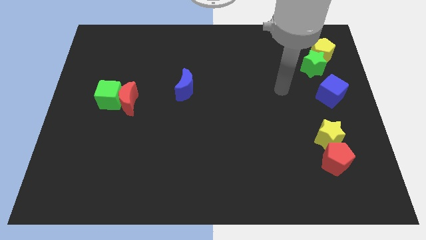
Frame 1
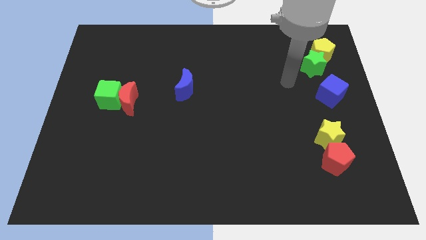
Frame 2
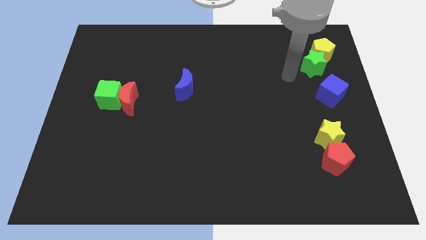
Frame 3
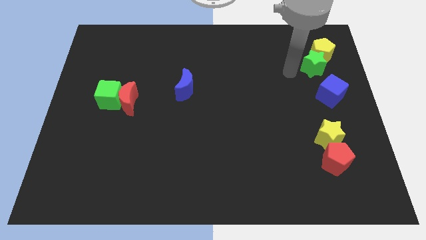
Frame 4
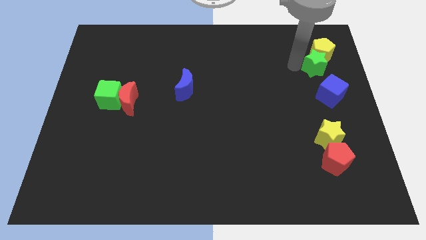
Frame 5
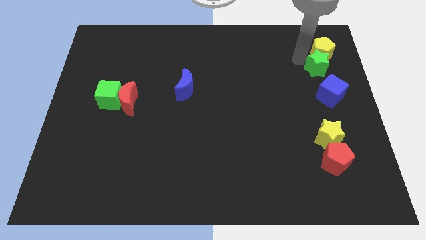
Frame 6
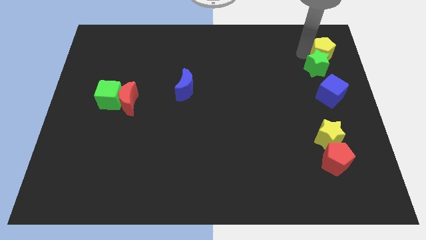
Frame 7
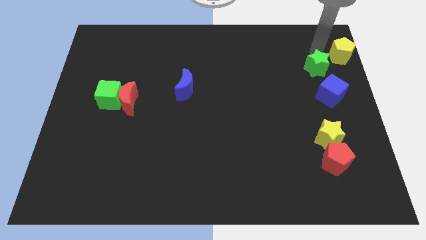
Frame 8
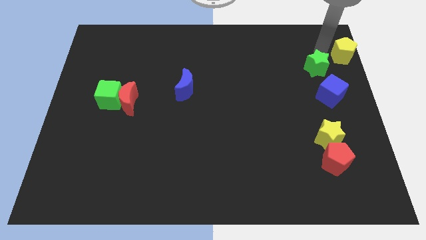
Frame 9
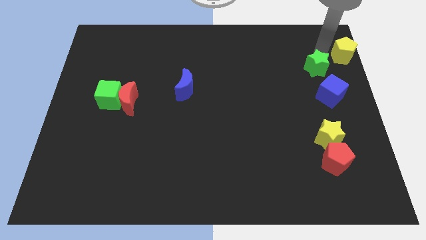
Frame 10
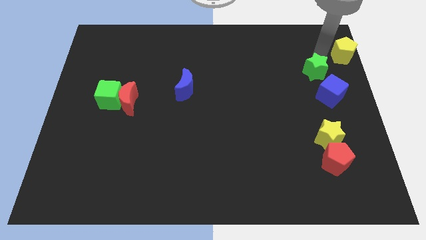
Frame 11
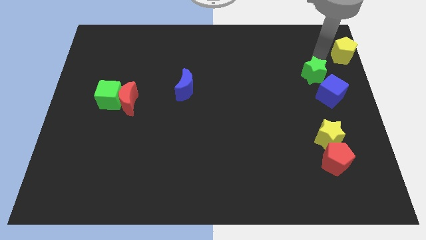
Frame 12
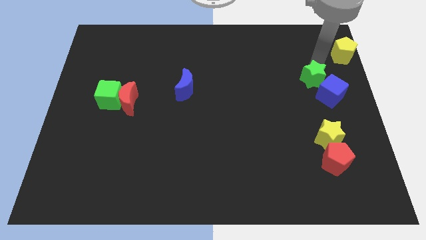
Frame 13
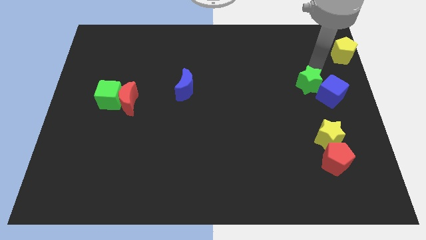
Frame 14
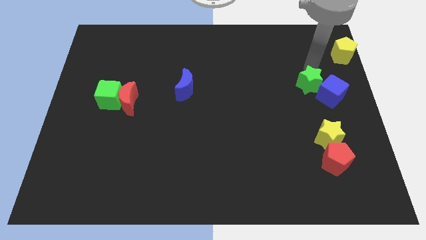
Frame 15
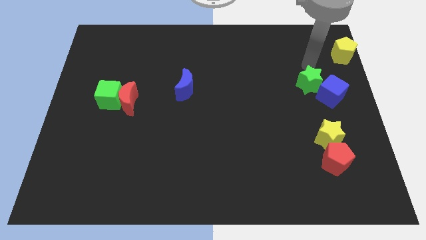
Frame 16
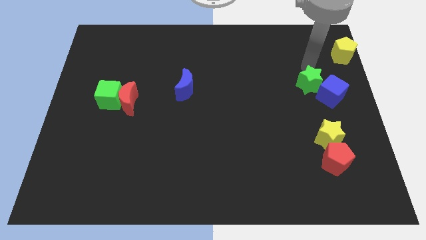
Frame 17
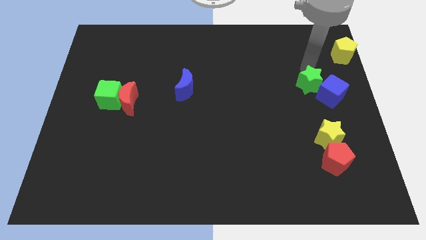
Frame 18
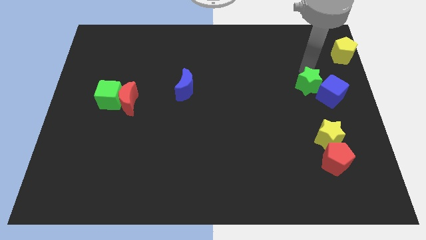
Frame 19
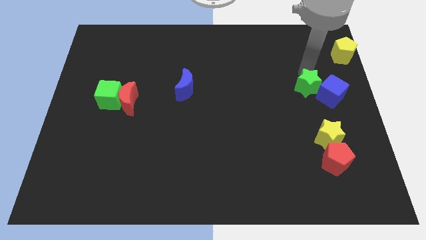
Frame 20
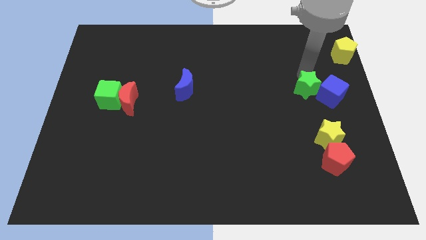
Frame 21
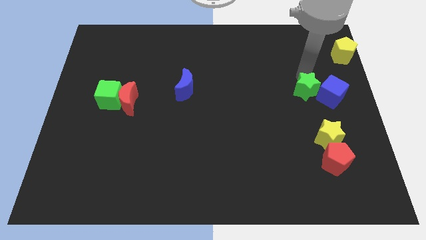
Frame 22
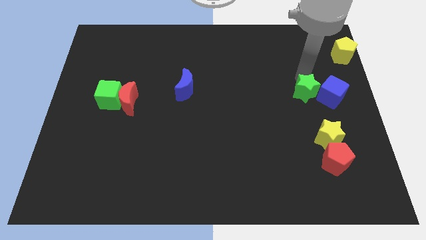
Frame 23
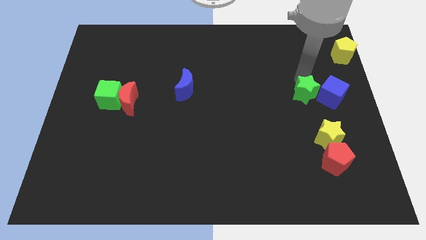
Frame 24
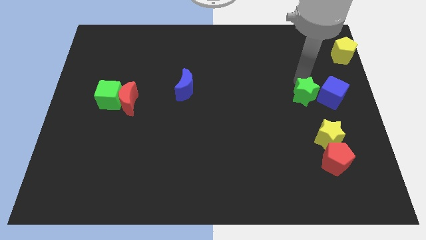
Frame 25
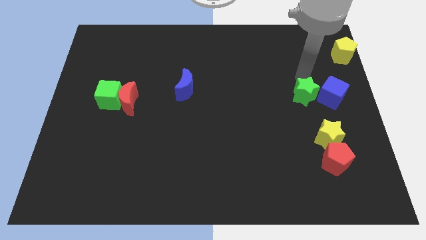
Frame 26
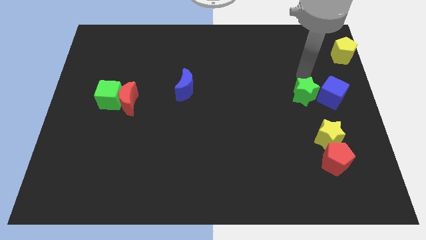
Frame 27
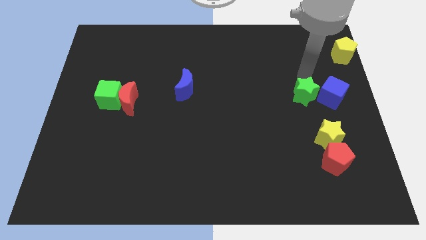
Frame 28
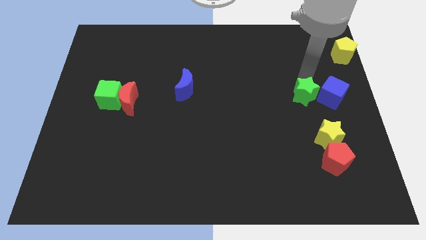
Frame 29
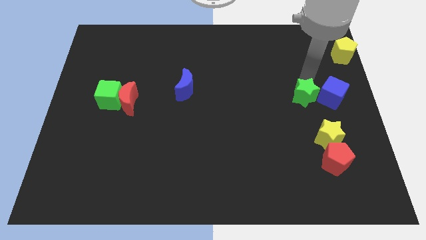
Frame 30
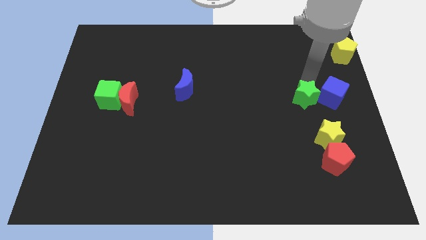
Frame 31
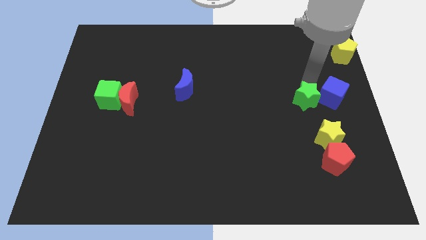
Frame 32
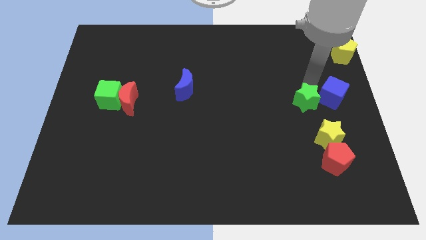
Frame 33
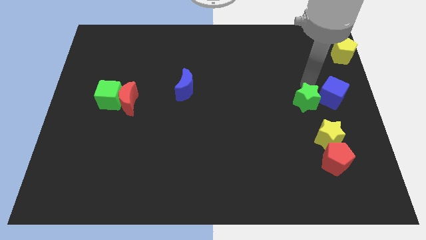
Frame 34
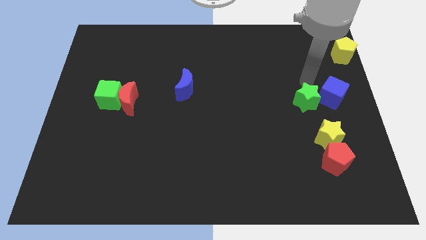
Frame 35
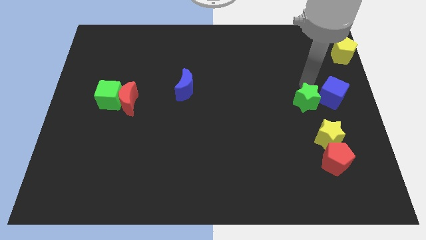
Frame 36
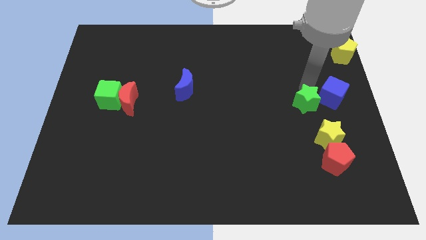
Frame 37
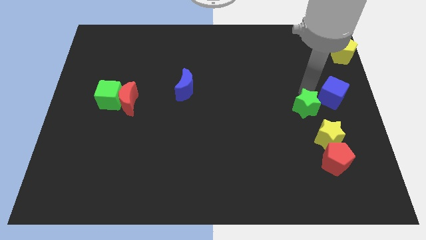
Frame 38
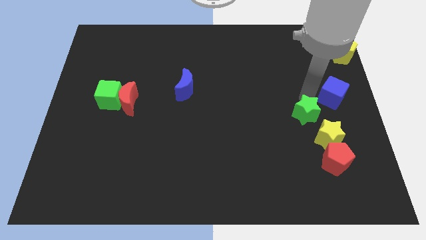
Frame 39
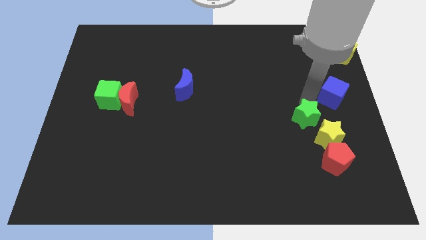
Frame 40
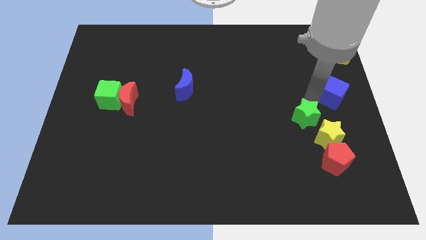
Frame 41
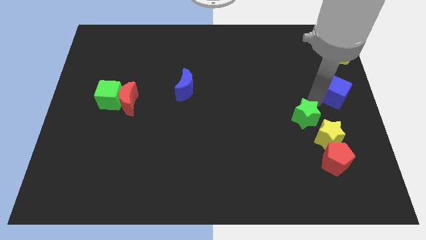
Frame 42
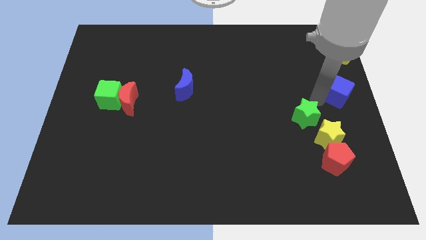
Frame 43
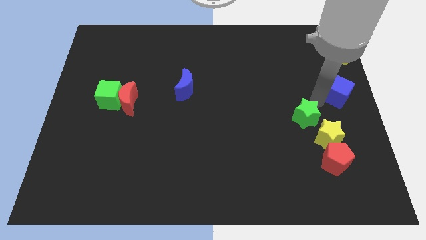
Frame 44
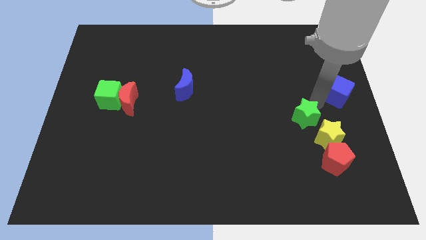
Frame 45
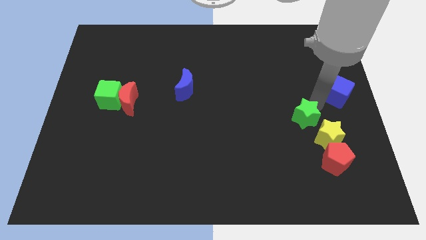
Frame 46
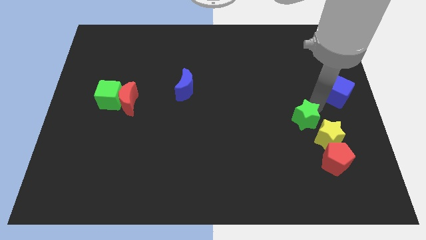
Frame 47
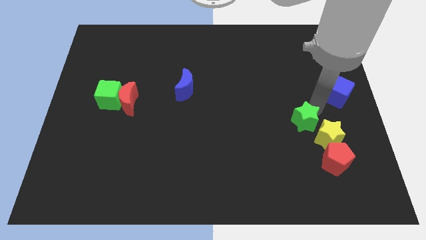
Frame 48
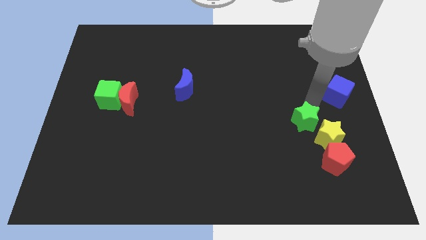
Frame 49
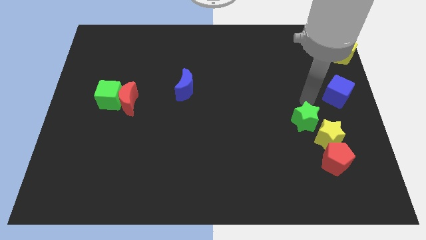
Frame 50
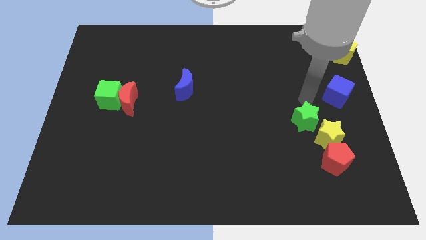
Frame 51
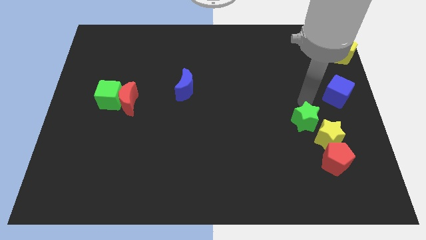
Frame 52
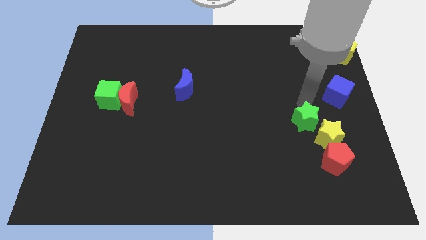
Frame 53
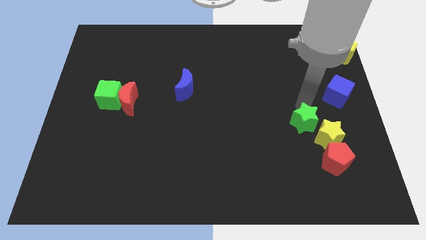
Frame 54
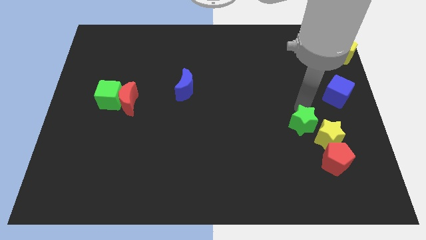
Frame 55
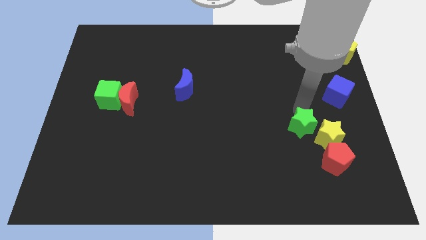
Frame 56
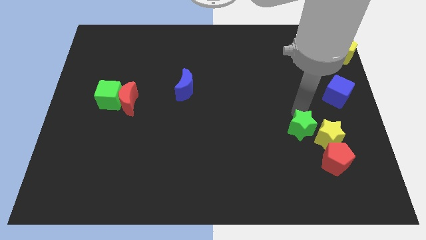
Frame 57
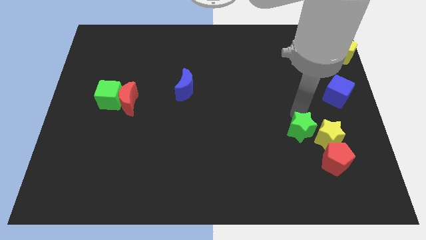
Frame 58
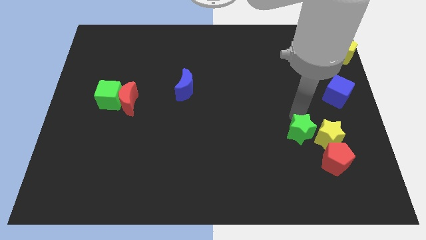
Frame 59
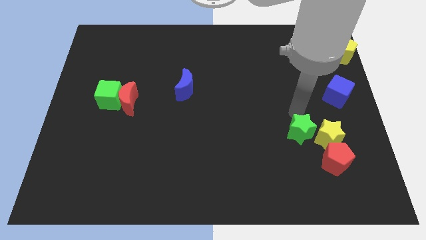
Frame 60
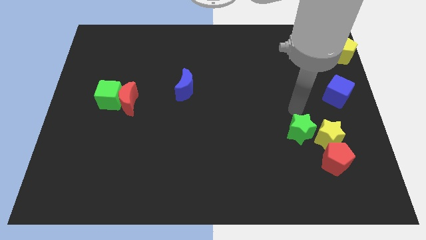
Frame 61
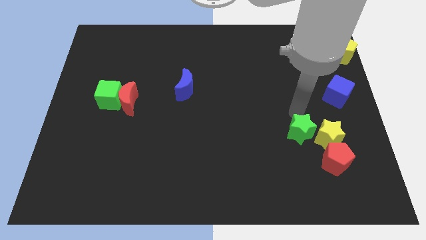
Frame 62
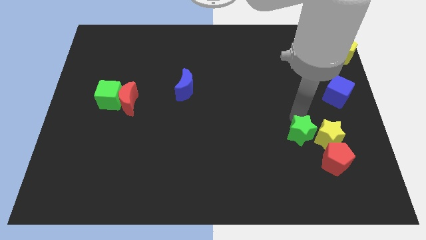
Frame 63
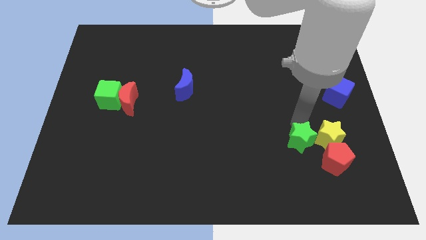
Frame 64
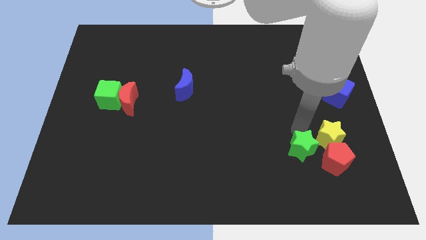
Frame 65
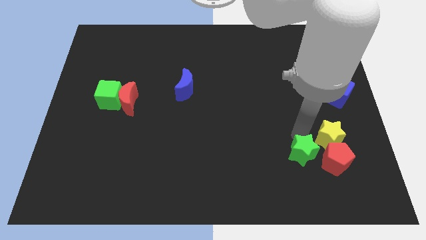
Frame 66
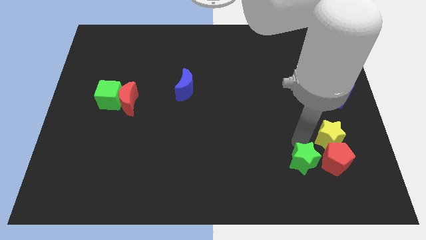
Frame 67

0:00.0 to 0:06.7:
slide the green star diagonally down and to the left of the red pentagon

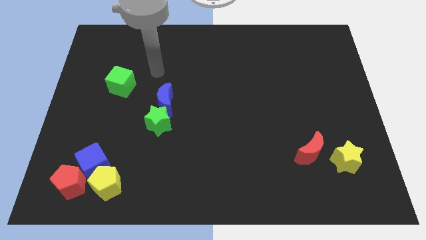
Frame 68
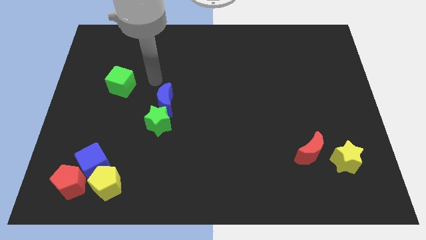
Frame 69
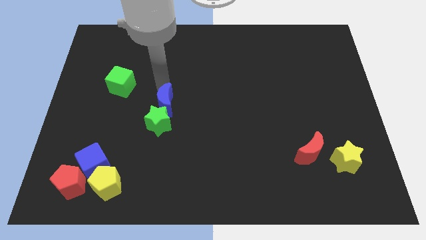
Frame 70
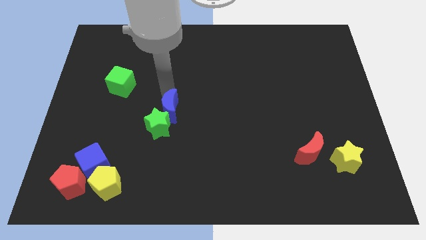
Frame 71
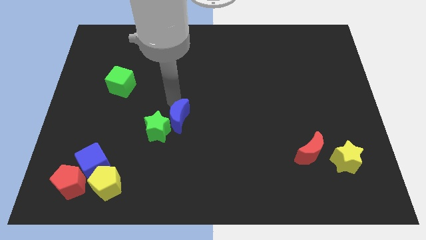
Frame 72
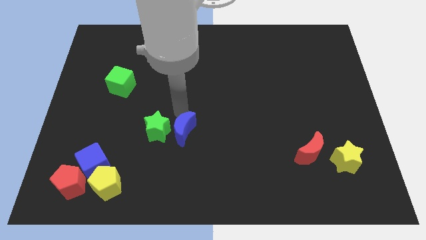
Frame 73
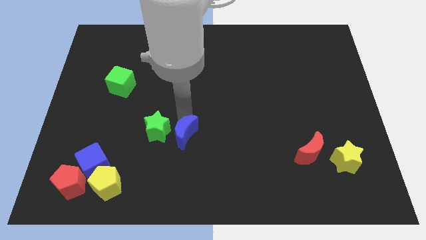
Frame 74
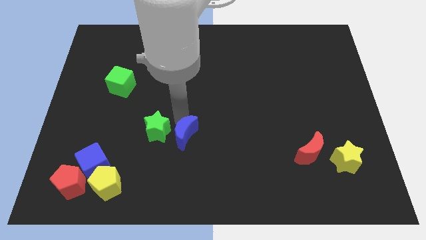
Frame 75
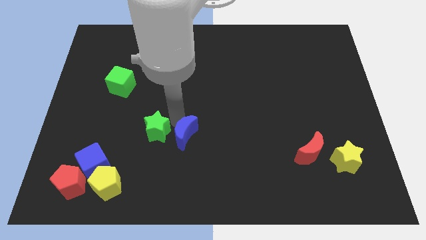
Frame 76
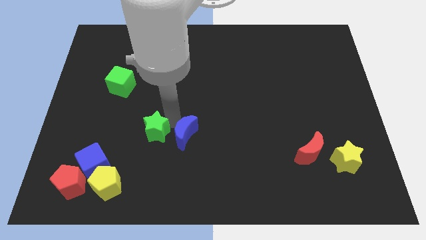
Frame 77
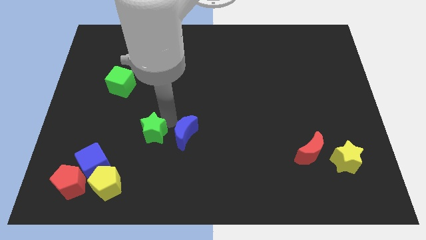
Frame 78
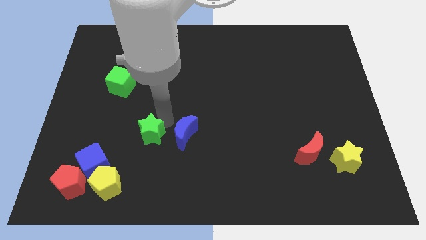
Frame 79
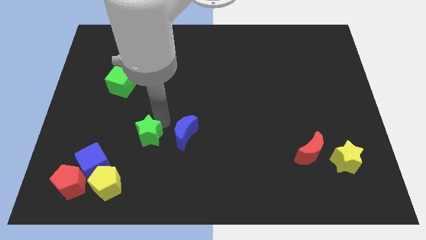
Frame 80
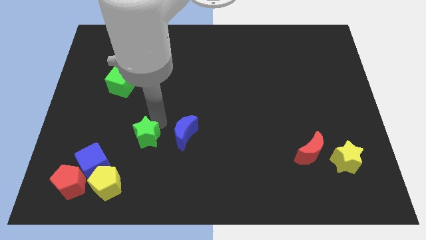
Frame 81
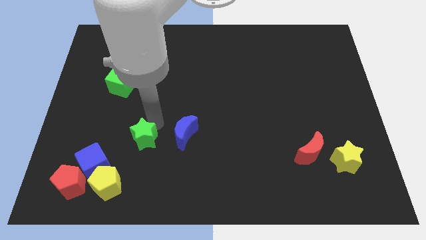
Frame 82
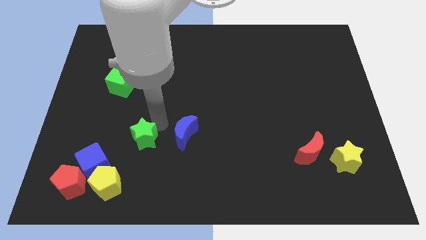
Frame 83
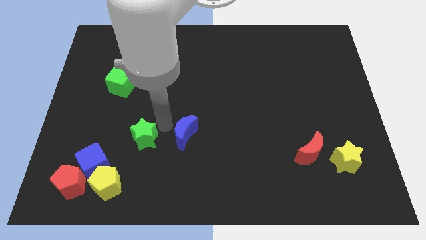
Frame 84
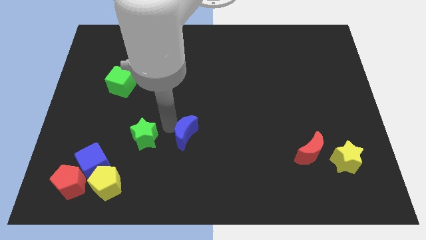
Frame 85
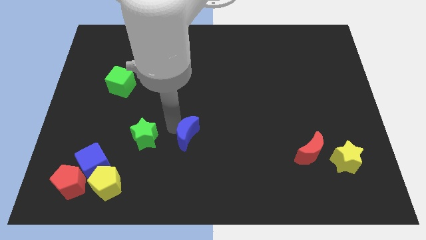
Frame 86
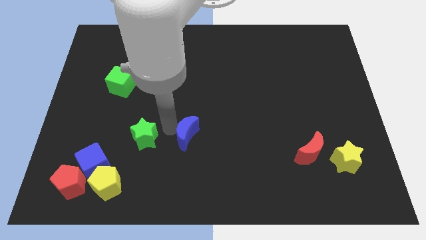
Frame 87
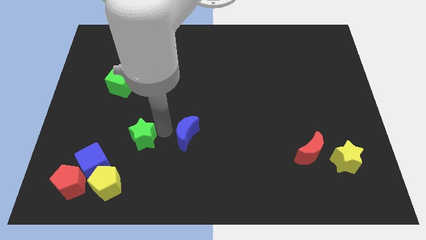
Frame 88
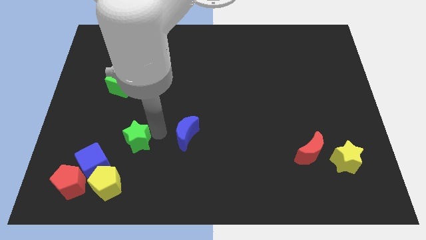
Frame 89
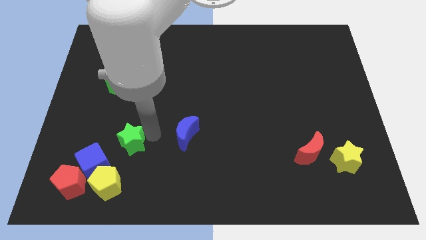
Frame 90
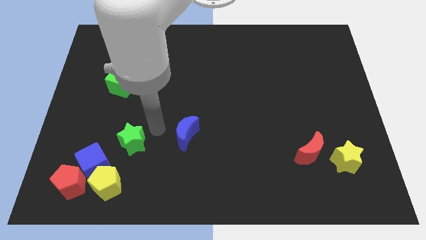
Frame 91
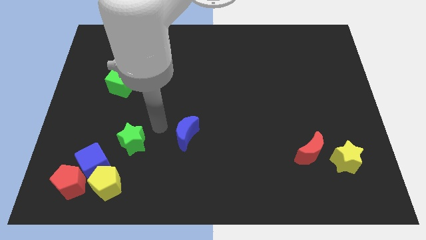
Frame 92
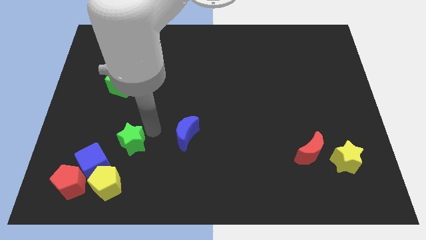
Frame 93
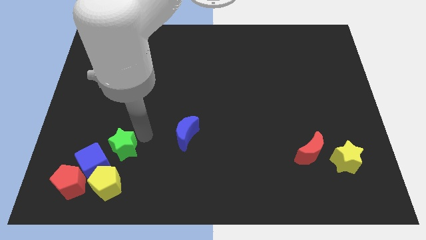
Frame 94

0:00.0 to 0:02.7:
slide the green star to the top right side of the red pentagon
